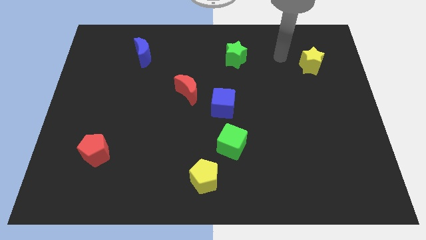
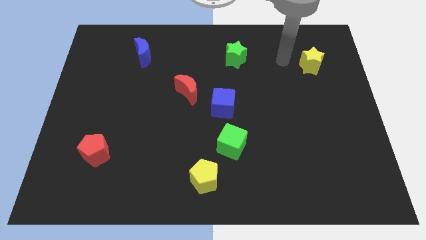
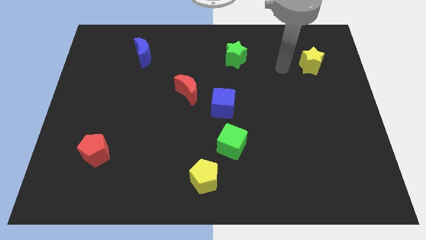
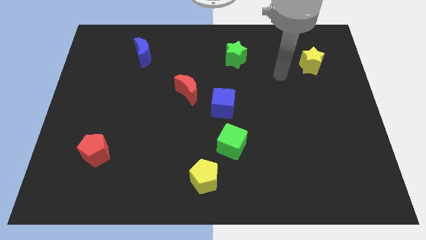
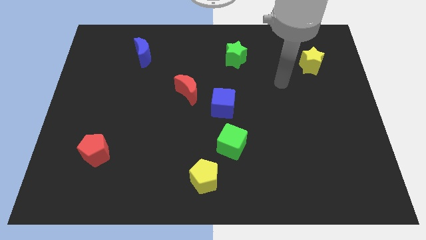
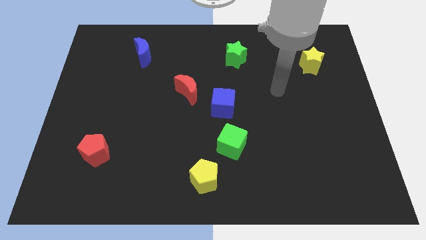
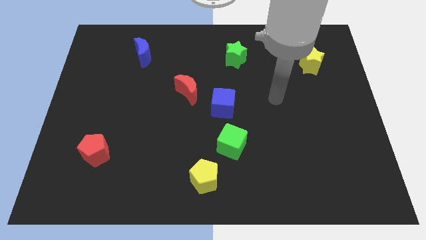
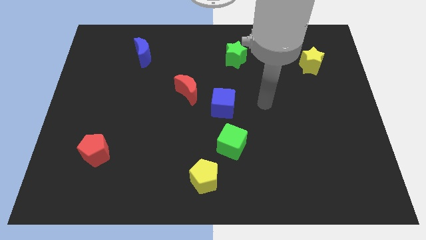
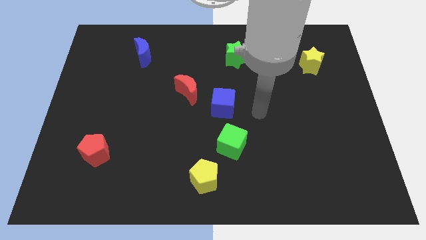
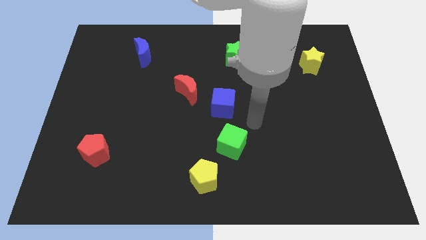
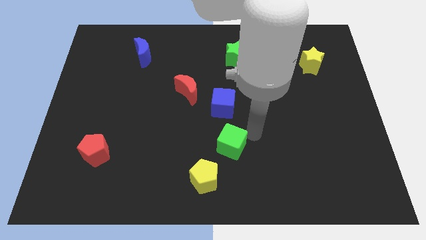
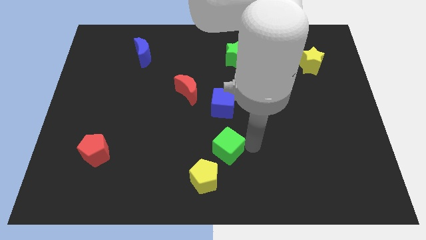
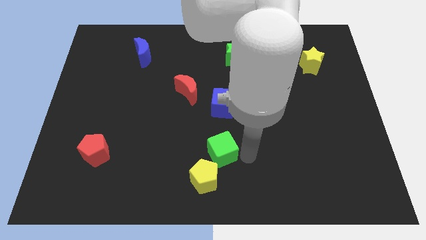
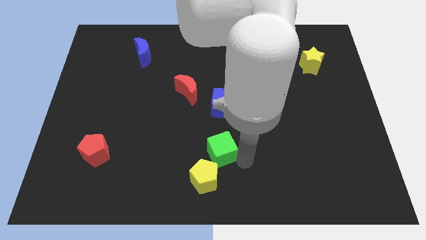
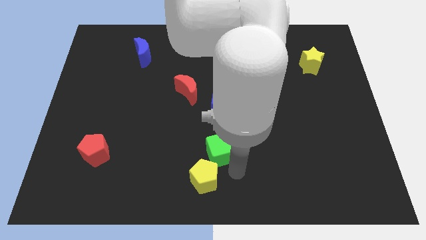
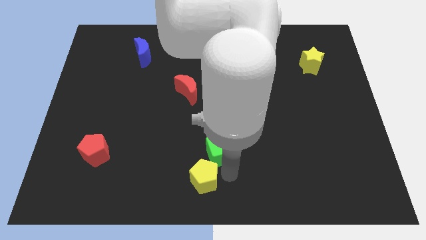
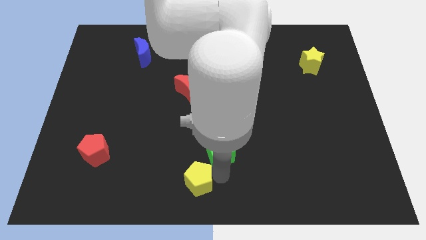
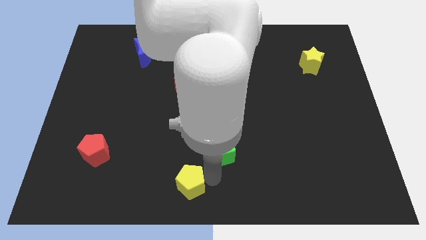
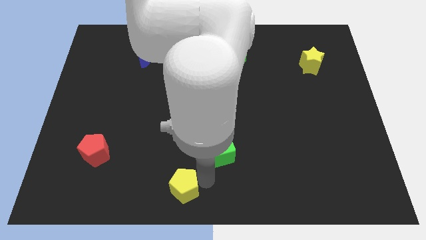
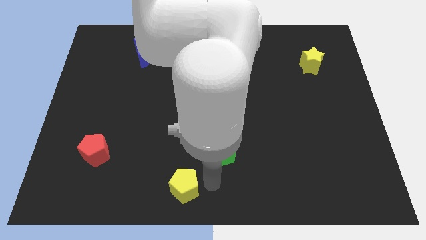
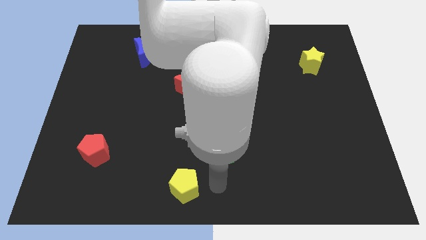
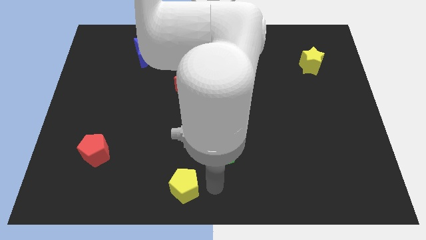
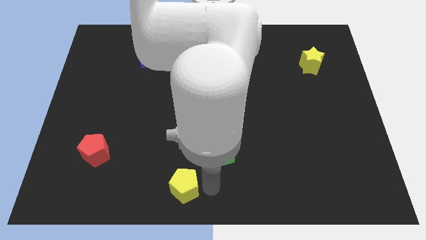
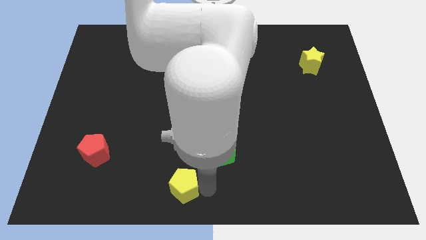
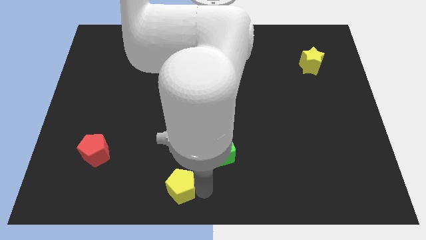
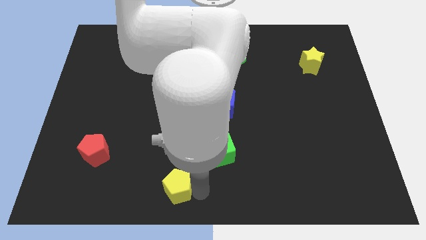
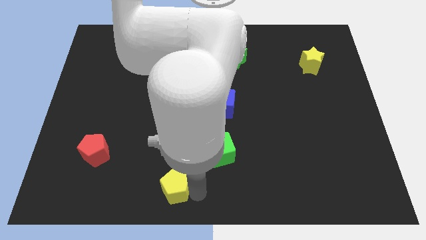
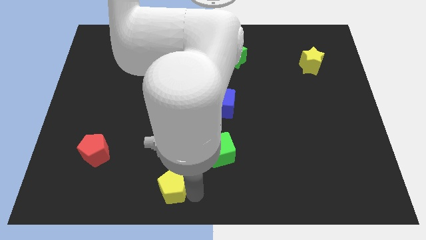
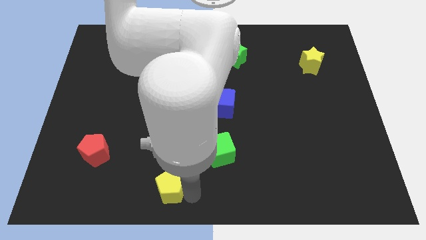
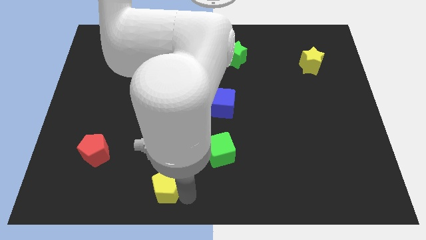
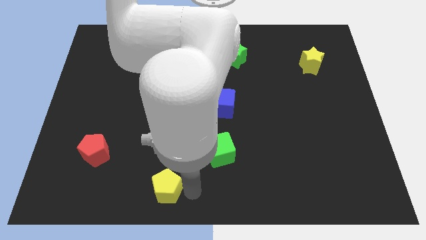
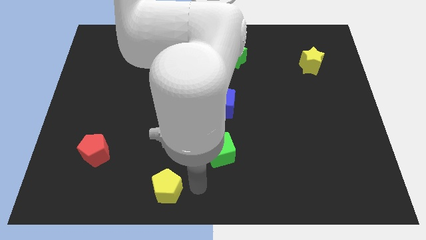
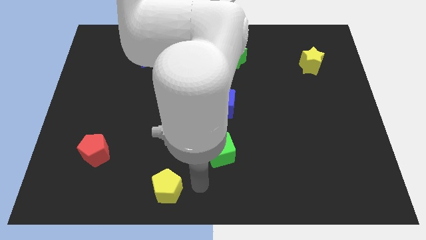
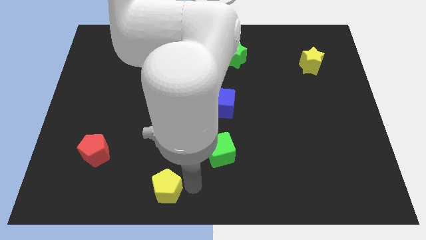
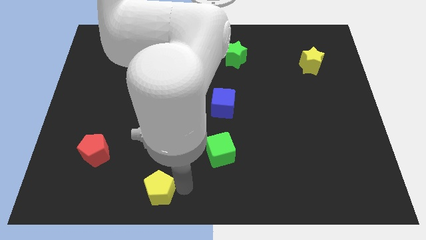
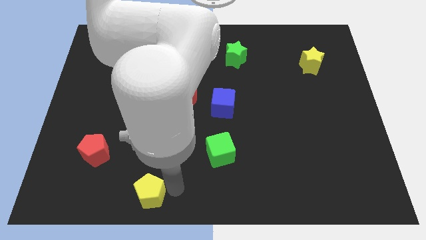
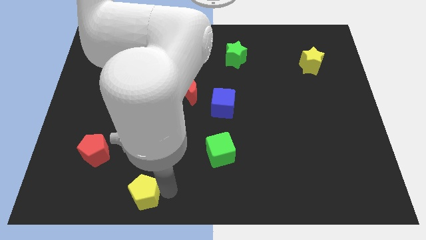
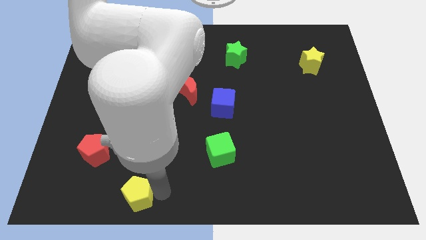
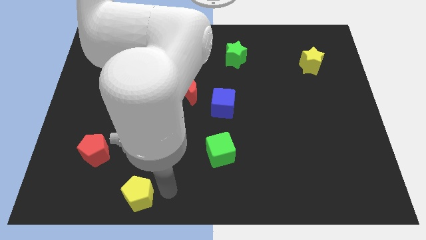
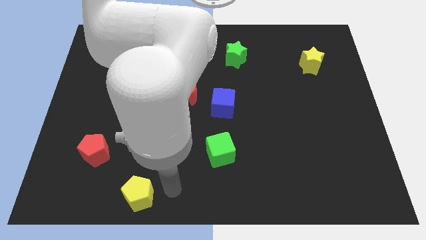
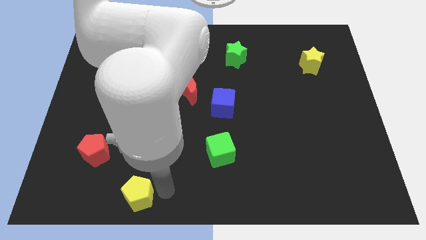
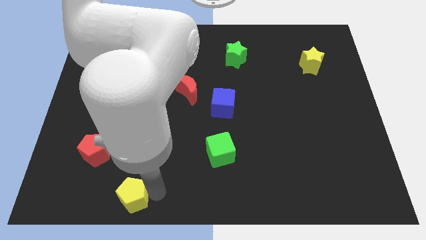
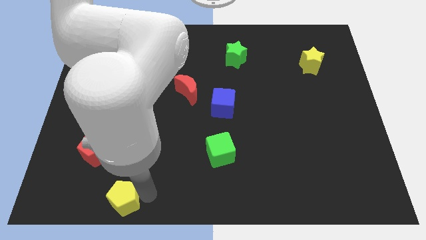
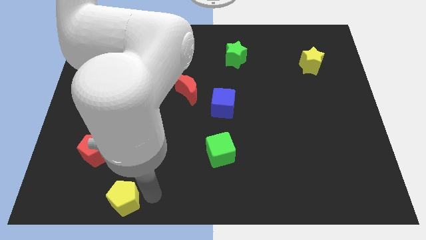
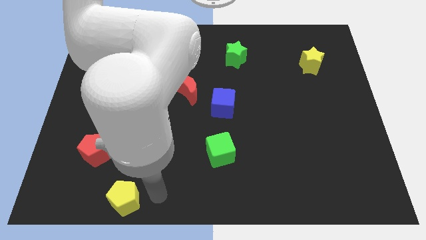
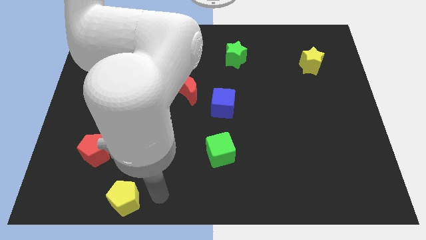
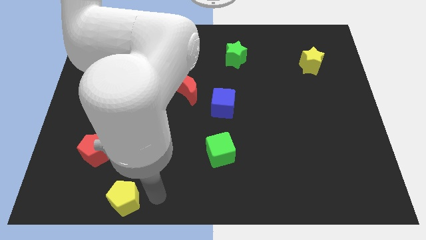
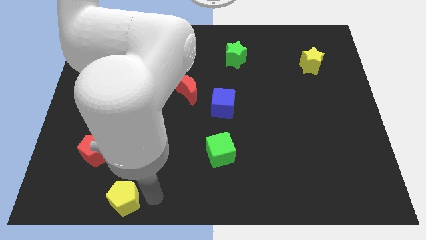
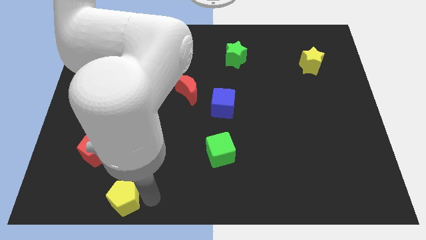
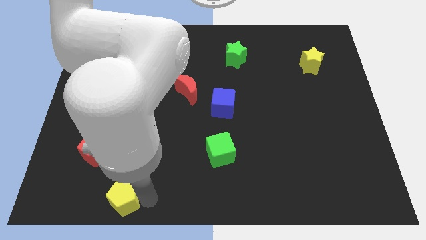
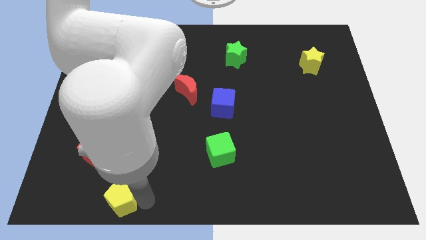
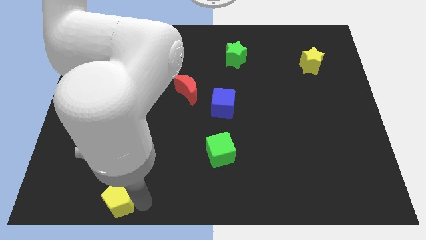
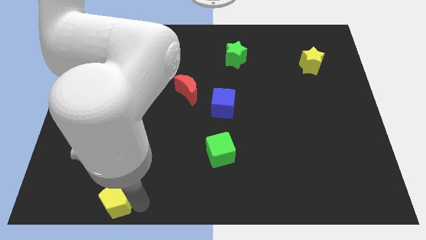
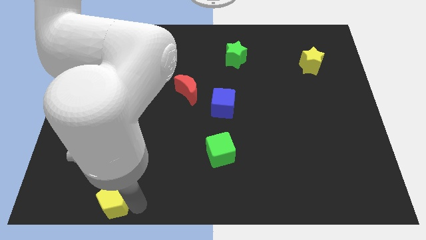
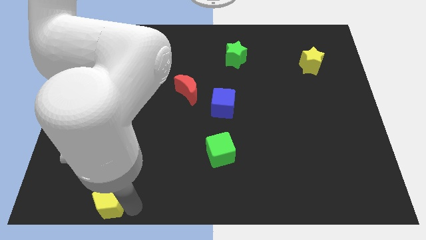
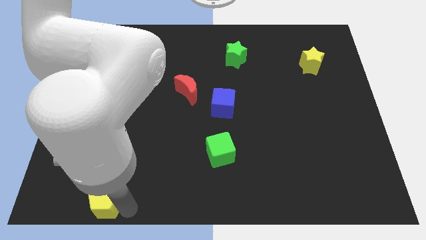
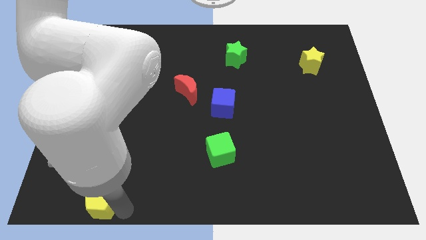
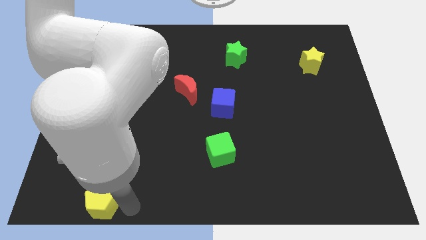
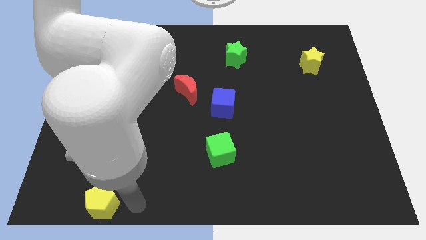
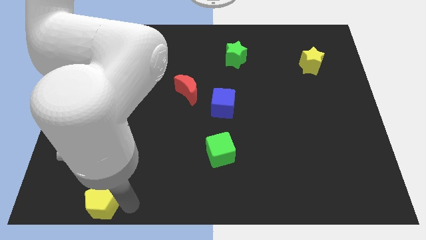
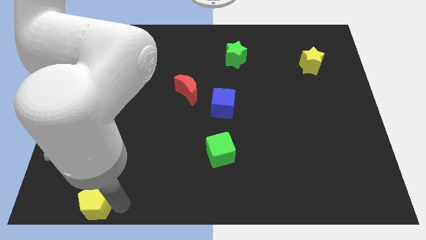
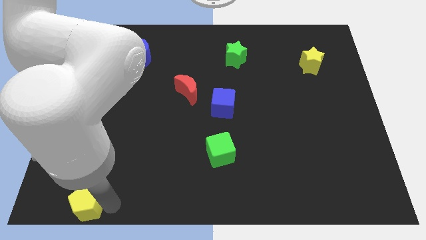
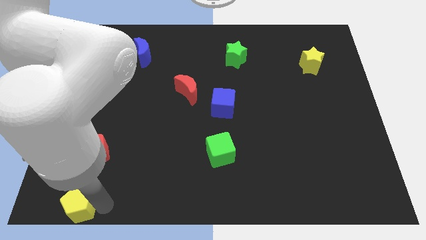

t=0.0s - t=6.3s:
push the yellow pentagon to the bottom left of the board
